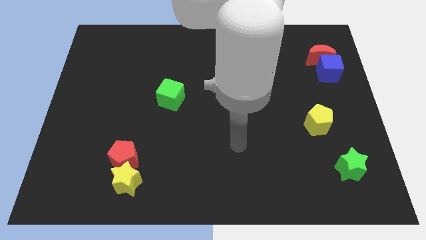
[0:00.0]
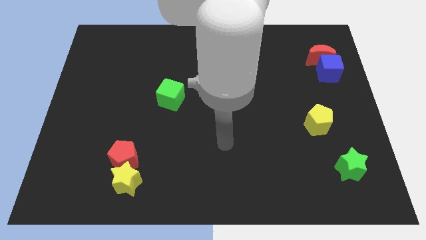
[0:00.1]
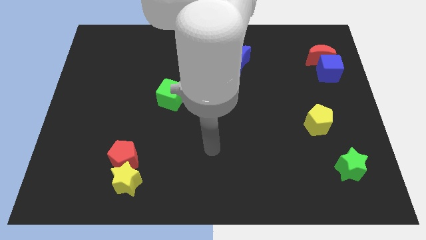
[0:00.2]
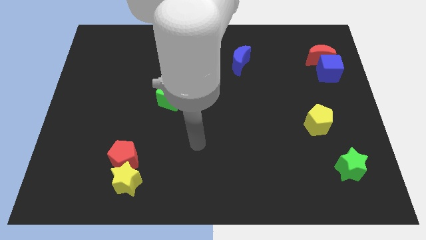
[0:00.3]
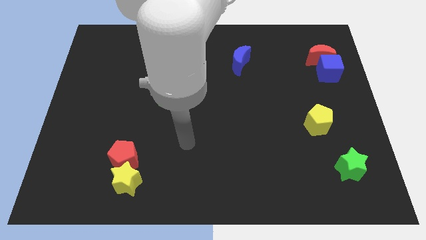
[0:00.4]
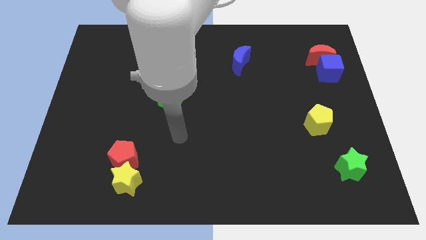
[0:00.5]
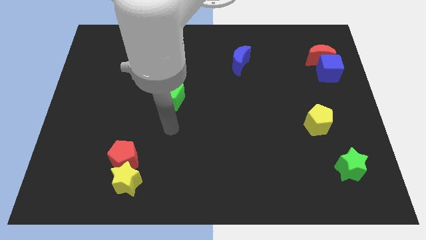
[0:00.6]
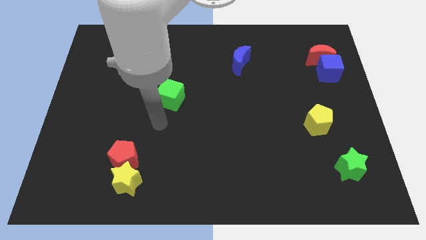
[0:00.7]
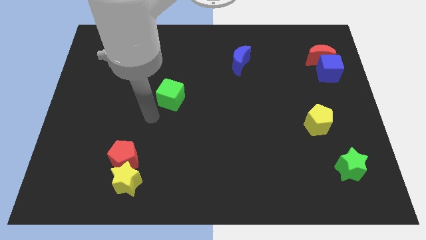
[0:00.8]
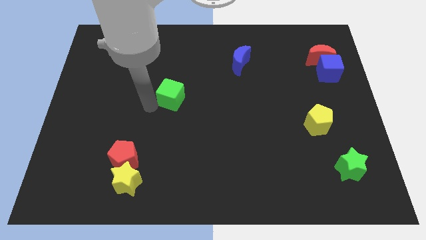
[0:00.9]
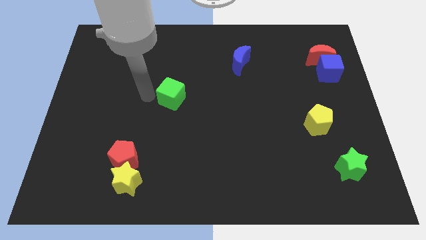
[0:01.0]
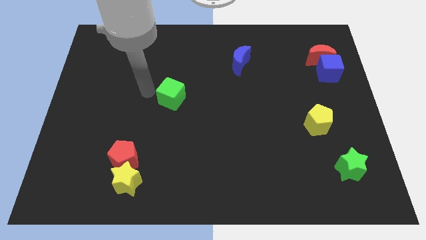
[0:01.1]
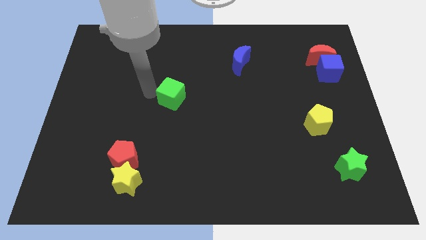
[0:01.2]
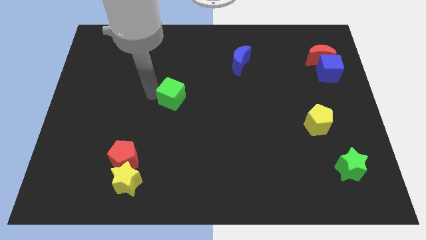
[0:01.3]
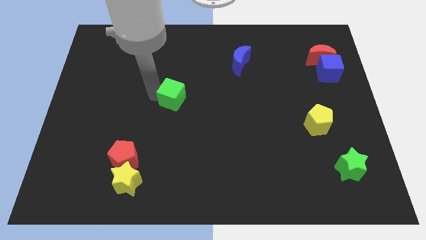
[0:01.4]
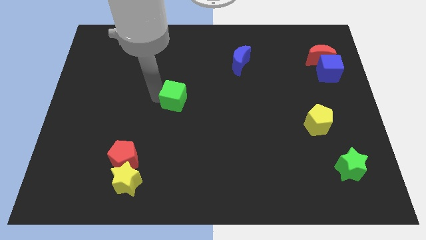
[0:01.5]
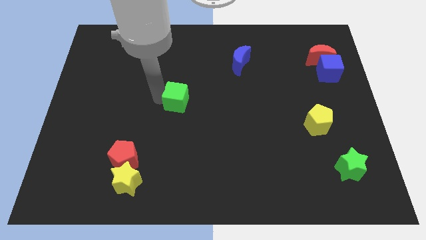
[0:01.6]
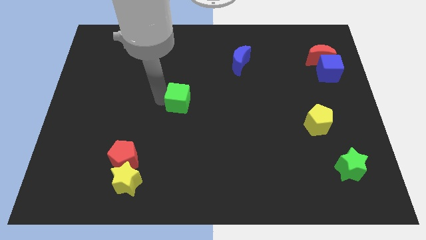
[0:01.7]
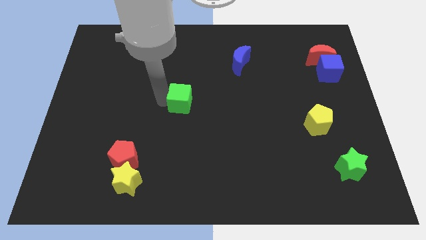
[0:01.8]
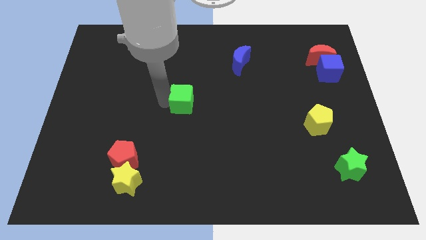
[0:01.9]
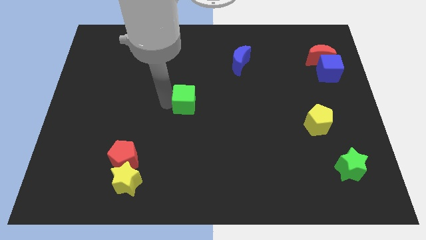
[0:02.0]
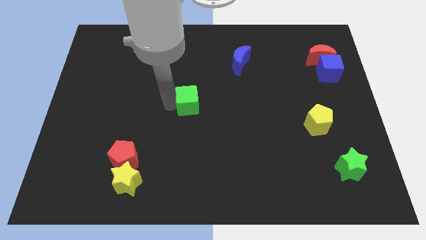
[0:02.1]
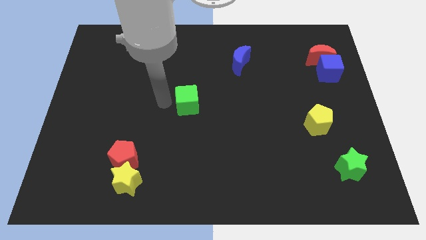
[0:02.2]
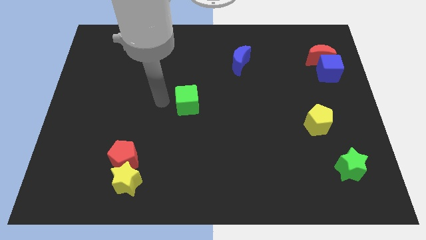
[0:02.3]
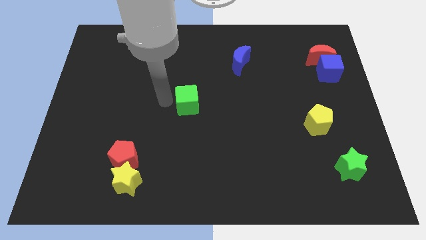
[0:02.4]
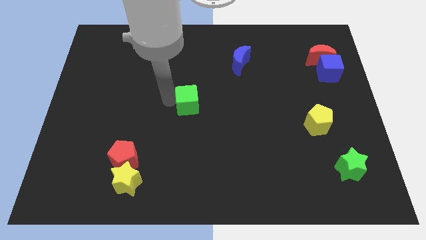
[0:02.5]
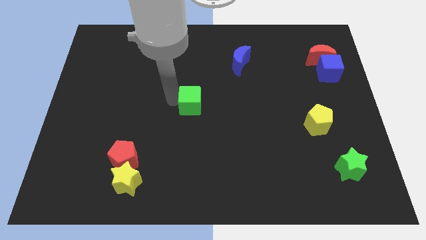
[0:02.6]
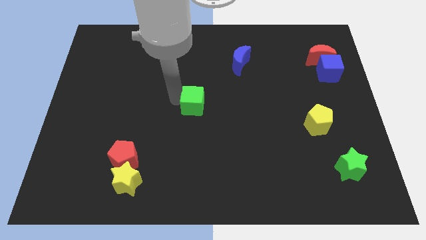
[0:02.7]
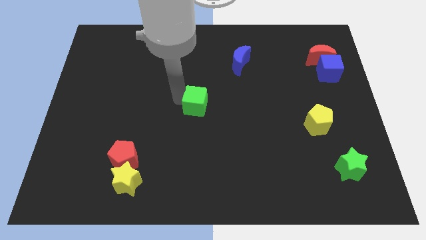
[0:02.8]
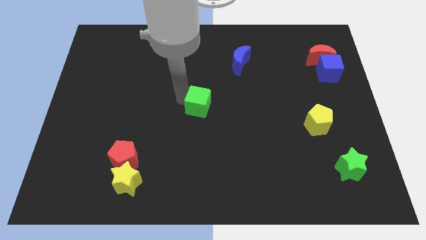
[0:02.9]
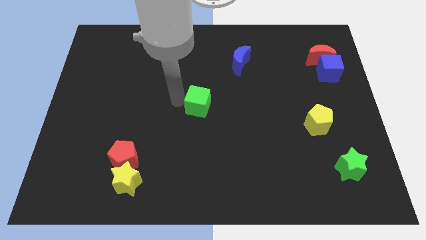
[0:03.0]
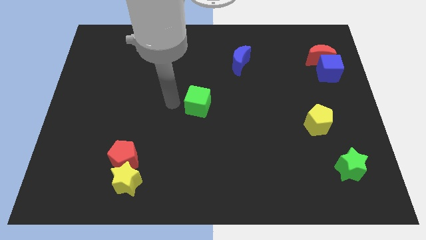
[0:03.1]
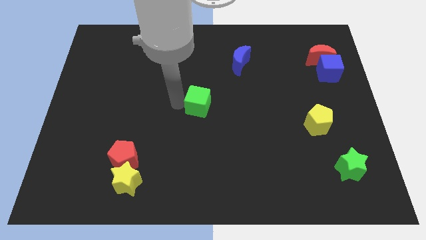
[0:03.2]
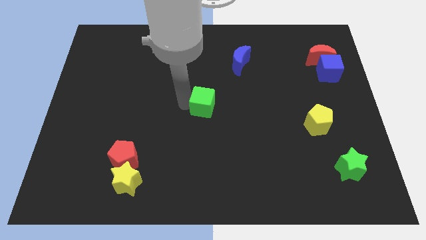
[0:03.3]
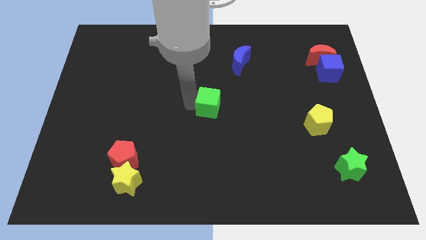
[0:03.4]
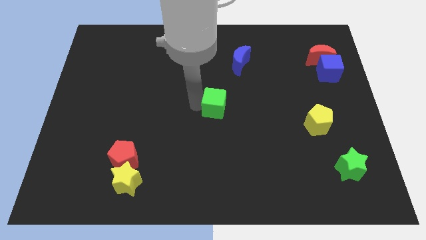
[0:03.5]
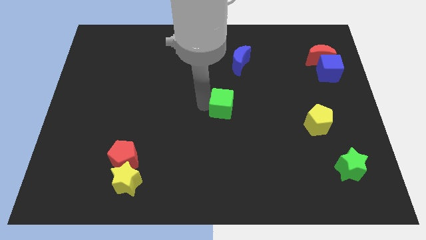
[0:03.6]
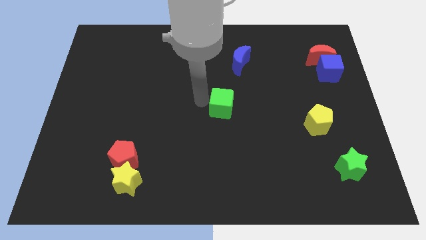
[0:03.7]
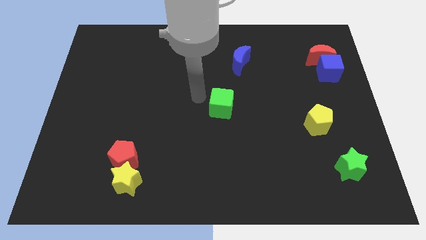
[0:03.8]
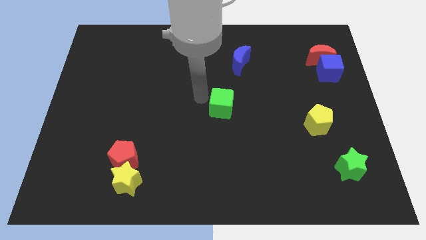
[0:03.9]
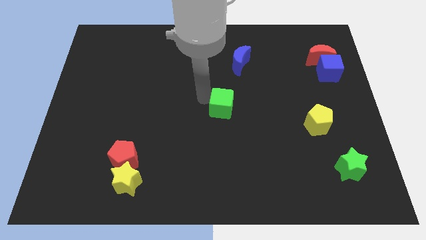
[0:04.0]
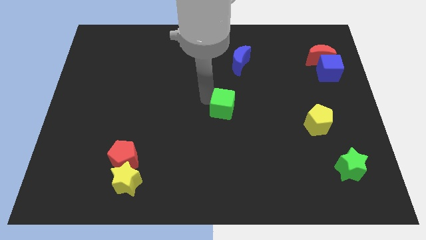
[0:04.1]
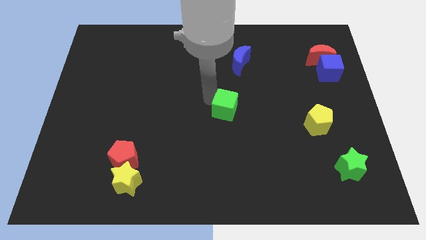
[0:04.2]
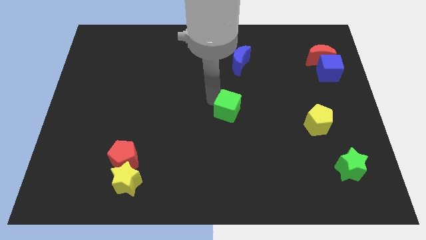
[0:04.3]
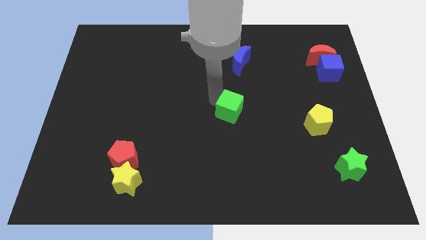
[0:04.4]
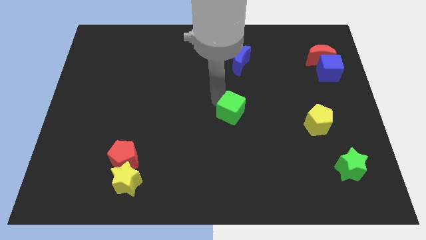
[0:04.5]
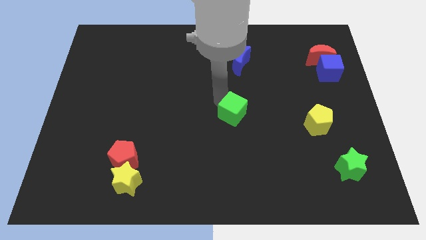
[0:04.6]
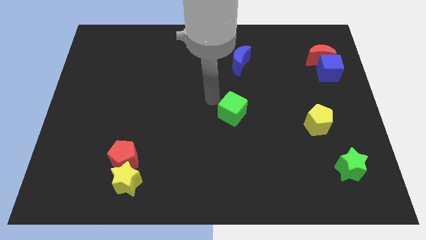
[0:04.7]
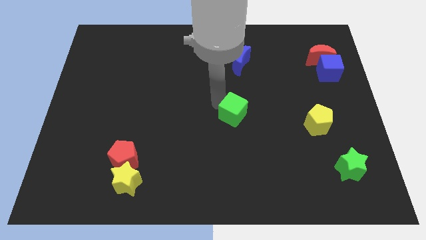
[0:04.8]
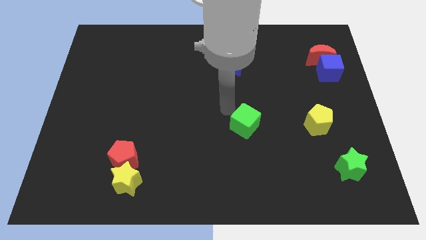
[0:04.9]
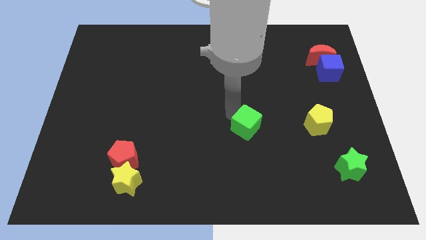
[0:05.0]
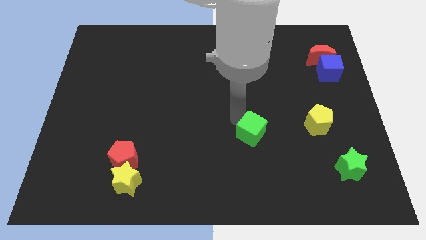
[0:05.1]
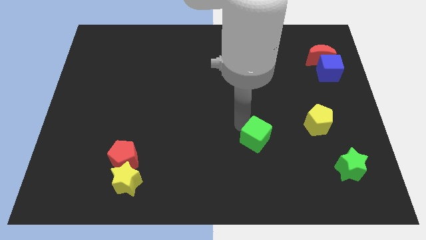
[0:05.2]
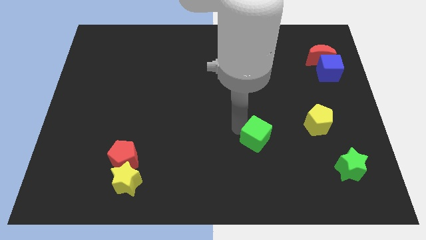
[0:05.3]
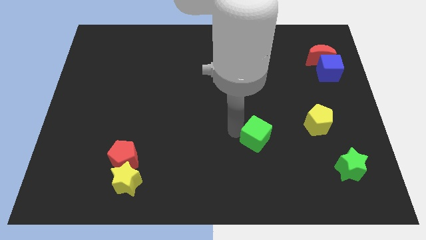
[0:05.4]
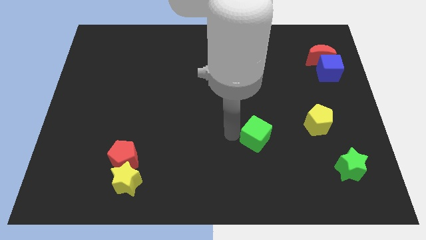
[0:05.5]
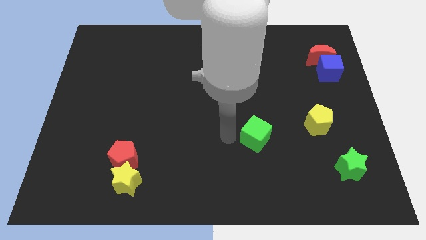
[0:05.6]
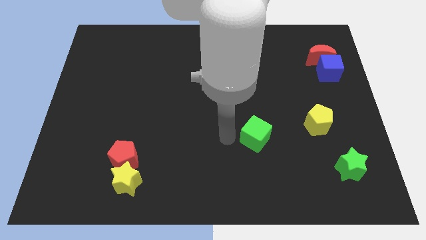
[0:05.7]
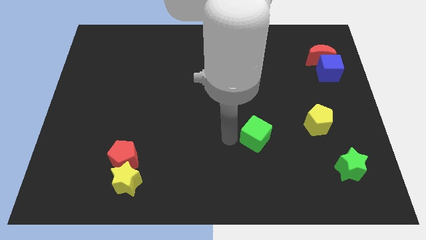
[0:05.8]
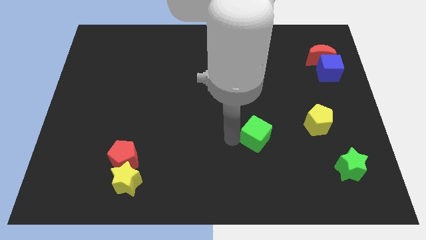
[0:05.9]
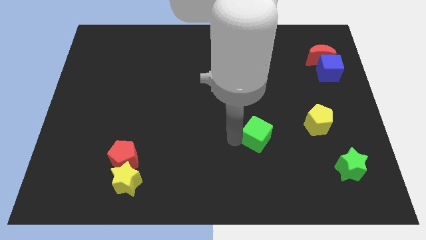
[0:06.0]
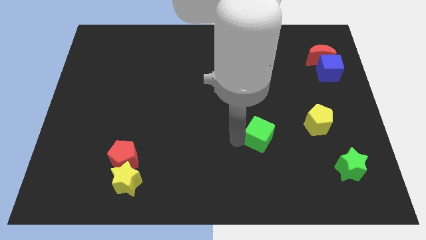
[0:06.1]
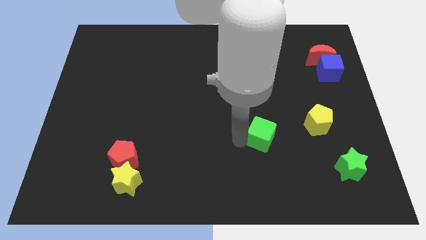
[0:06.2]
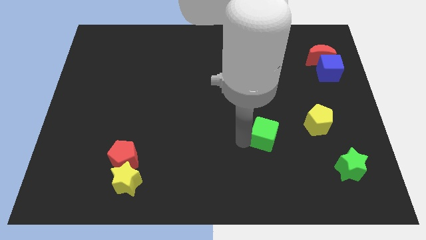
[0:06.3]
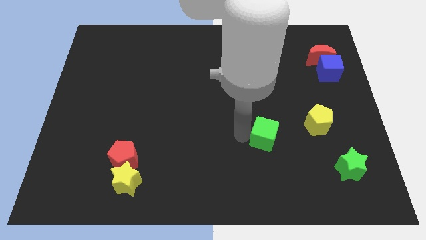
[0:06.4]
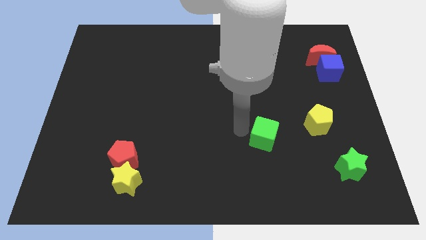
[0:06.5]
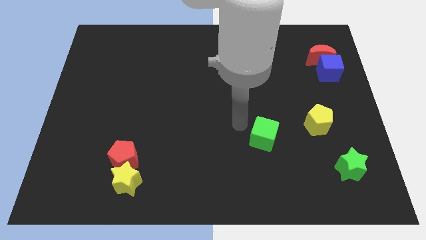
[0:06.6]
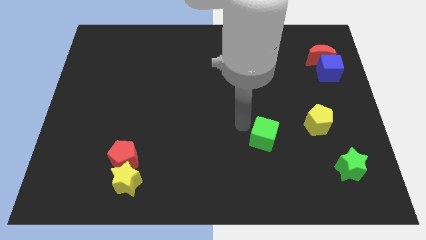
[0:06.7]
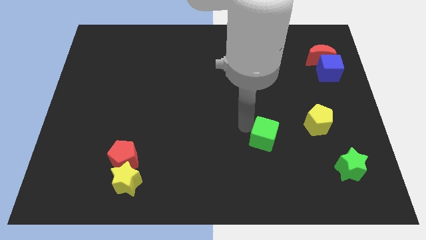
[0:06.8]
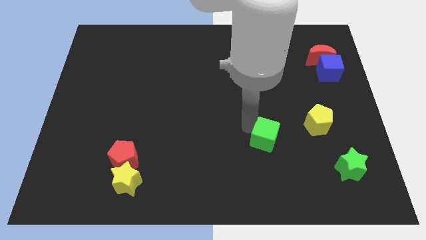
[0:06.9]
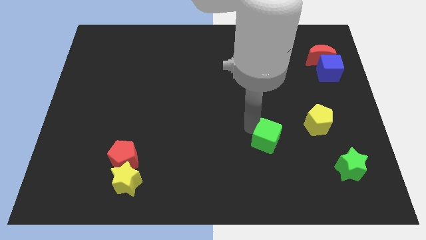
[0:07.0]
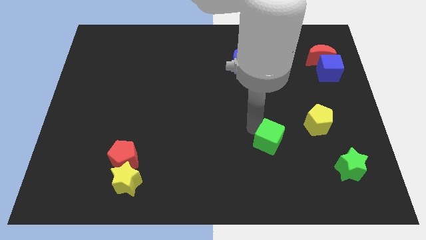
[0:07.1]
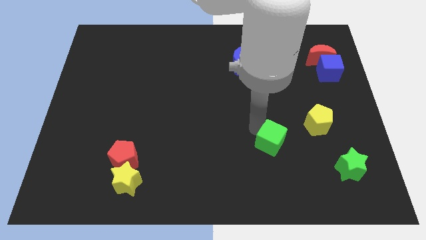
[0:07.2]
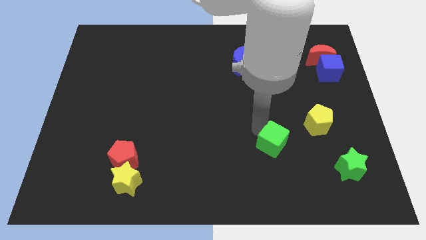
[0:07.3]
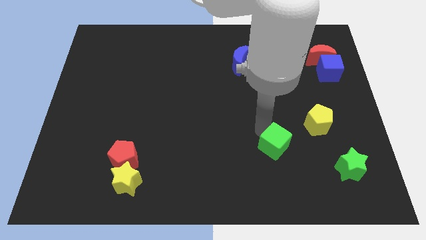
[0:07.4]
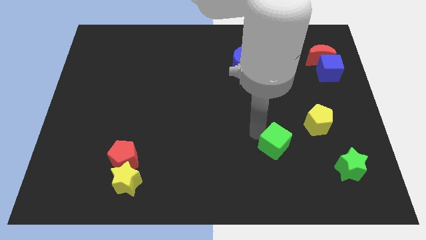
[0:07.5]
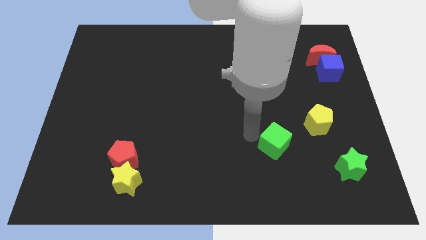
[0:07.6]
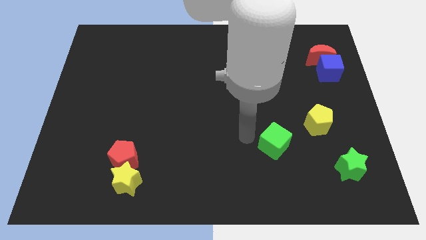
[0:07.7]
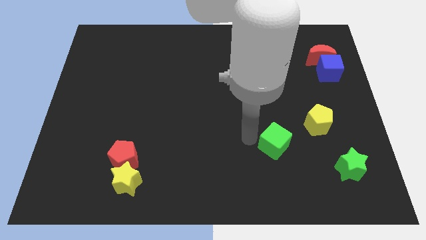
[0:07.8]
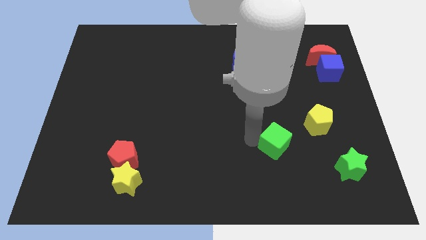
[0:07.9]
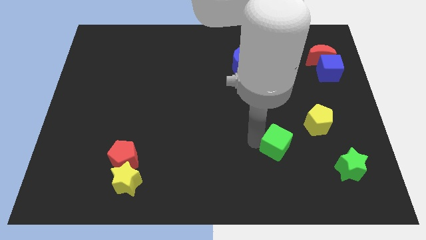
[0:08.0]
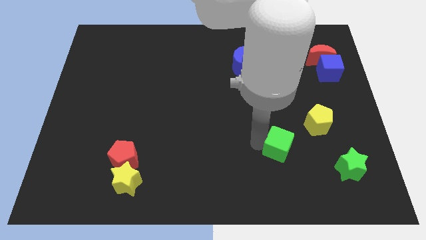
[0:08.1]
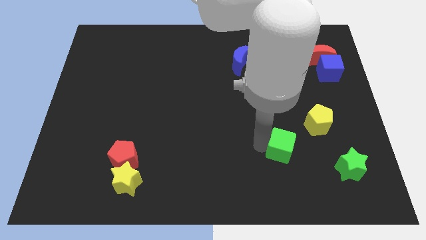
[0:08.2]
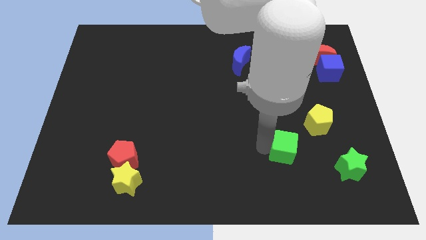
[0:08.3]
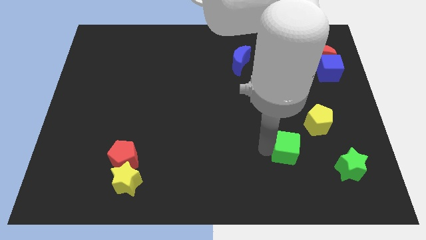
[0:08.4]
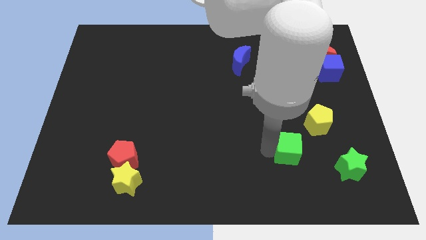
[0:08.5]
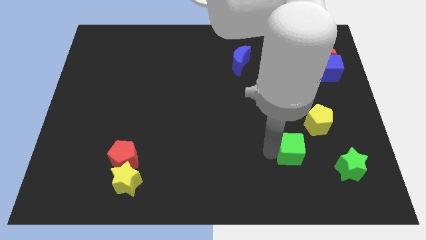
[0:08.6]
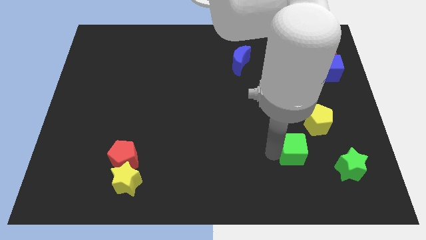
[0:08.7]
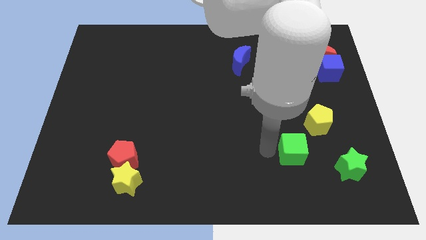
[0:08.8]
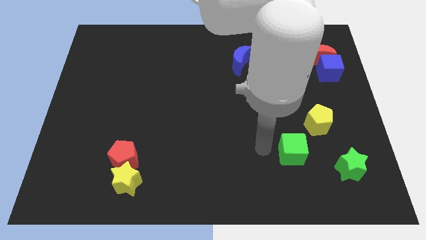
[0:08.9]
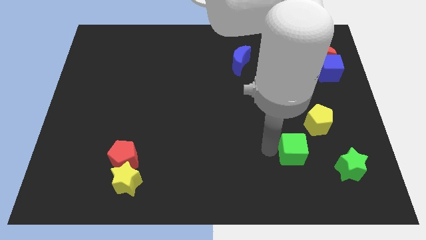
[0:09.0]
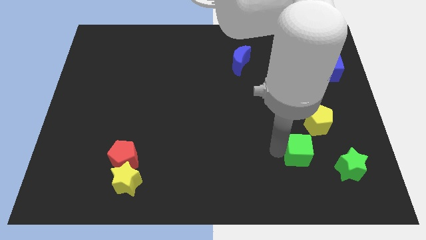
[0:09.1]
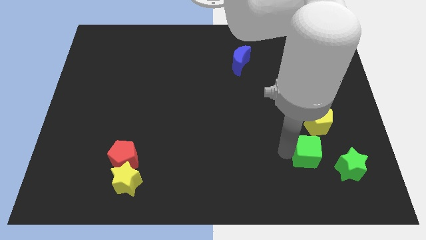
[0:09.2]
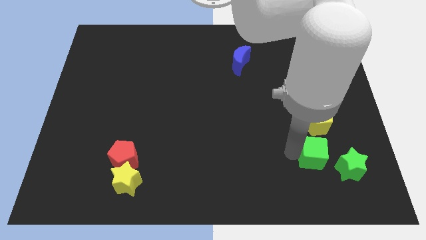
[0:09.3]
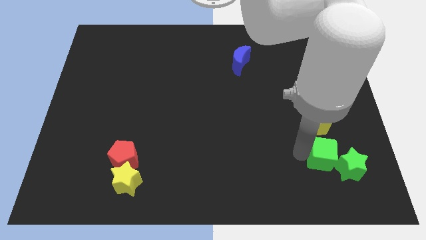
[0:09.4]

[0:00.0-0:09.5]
push the green cube close to the green star
